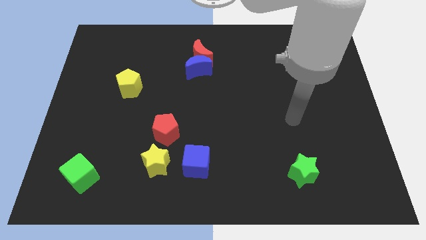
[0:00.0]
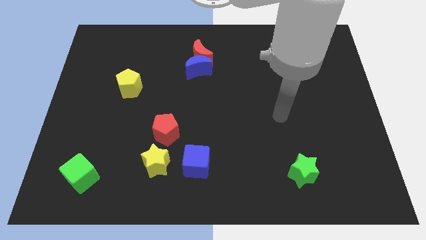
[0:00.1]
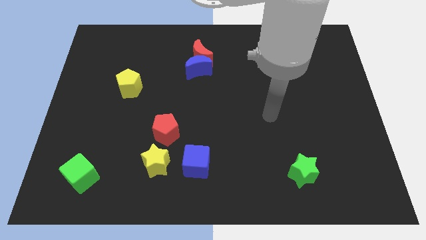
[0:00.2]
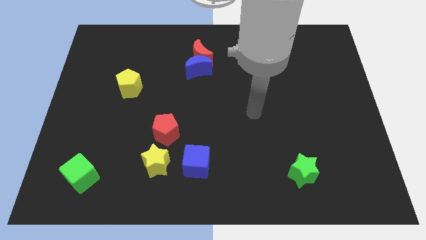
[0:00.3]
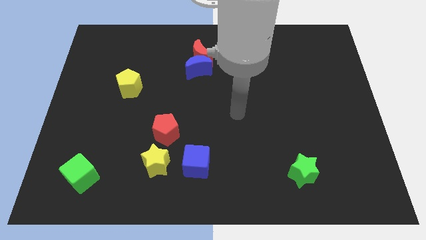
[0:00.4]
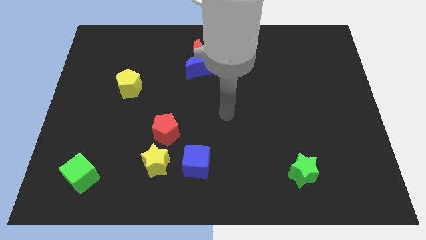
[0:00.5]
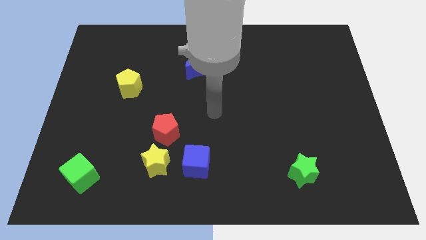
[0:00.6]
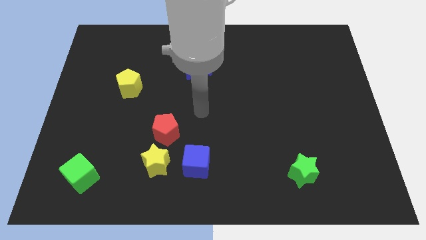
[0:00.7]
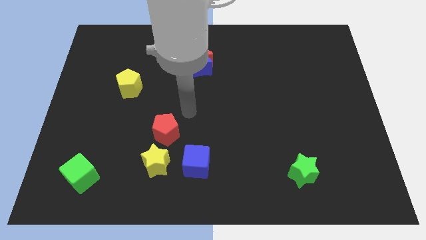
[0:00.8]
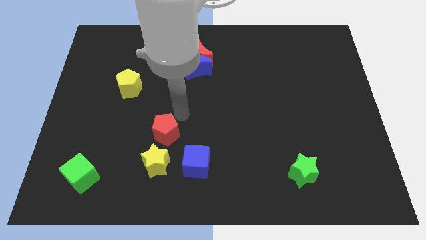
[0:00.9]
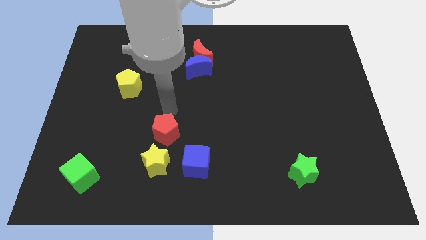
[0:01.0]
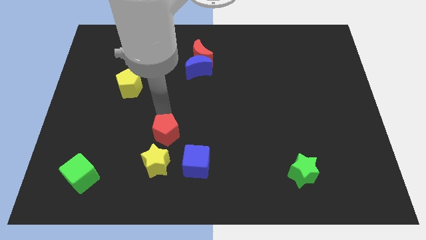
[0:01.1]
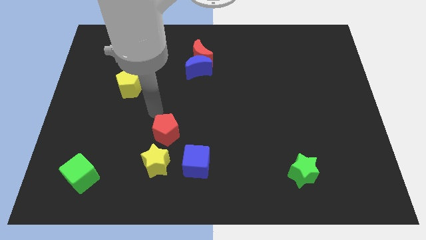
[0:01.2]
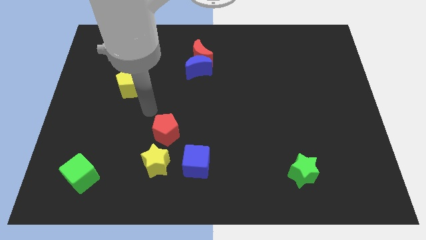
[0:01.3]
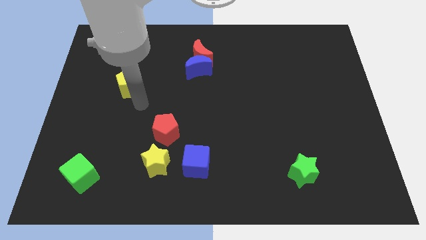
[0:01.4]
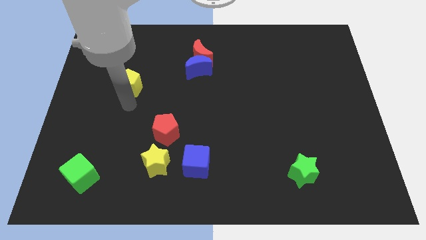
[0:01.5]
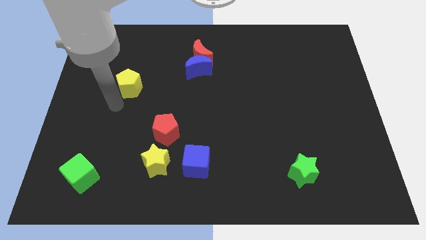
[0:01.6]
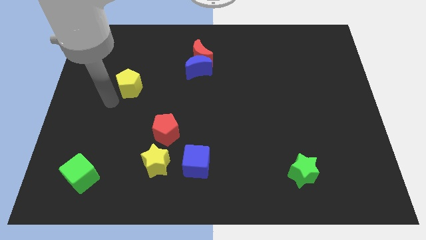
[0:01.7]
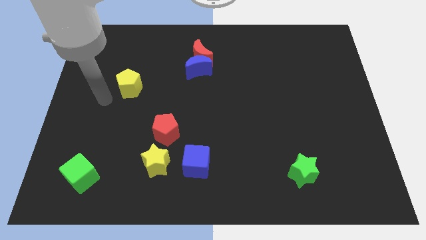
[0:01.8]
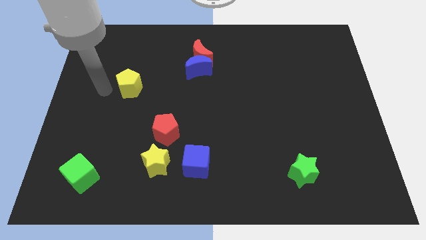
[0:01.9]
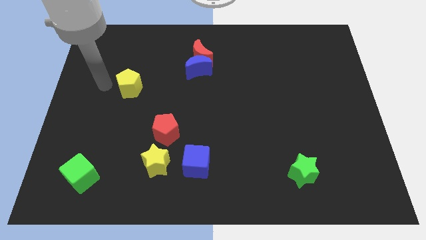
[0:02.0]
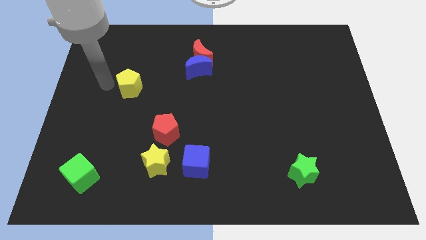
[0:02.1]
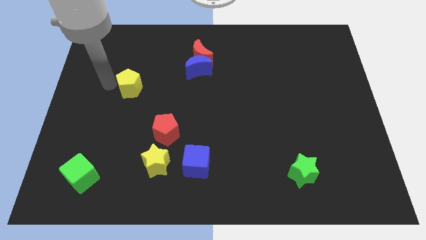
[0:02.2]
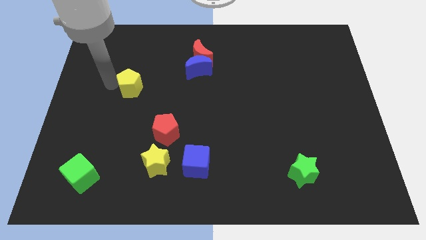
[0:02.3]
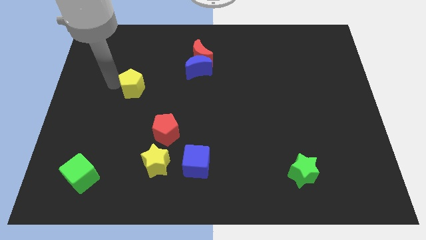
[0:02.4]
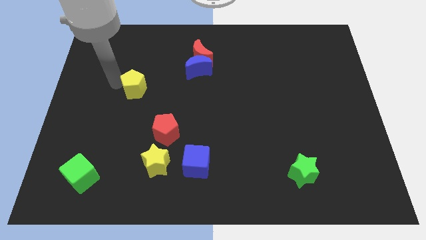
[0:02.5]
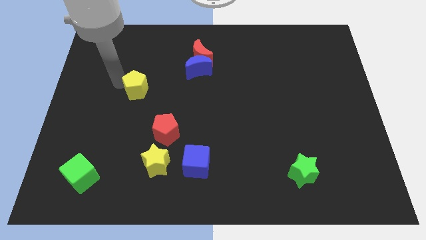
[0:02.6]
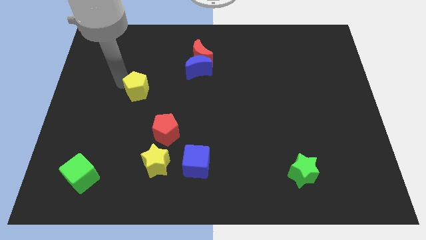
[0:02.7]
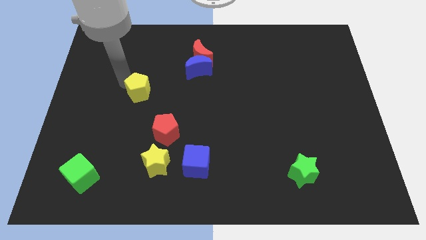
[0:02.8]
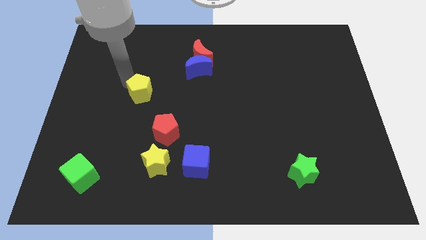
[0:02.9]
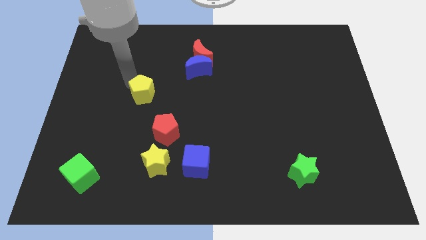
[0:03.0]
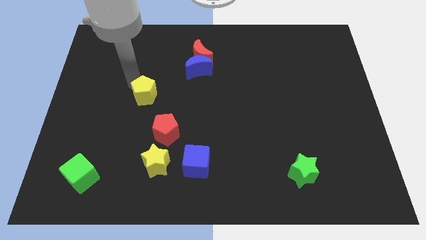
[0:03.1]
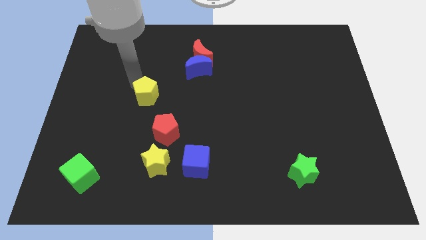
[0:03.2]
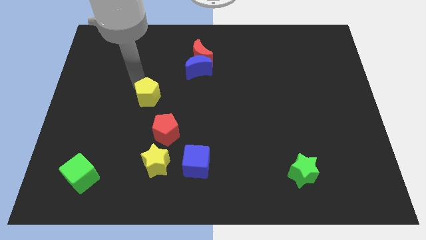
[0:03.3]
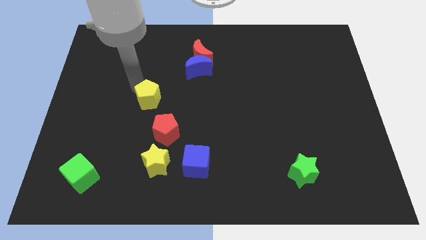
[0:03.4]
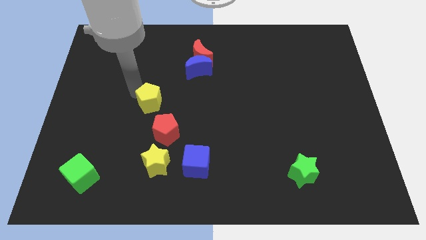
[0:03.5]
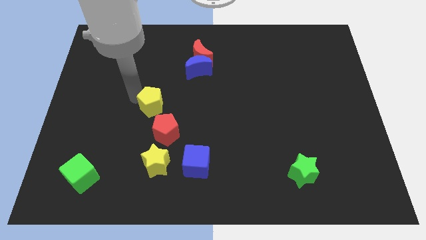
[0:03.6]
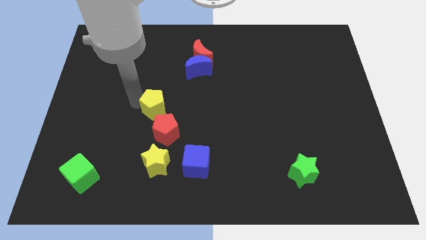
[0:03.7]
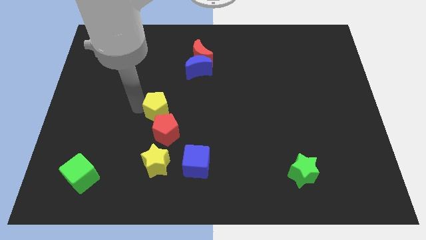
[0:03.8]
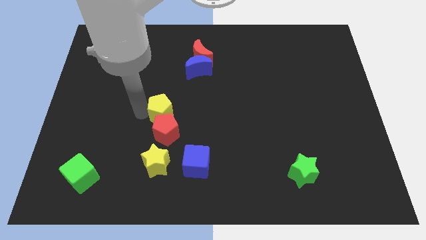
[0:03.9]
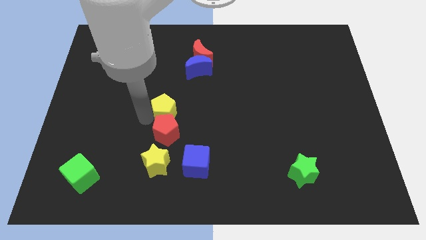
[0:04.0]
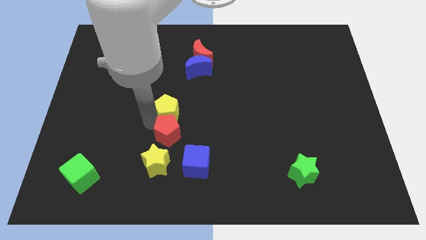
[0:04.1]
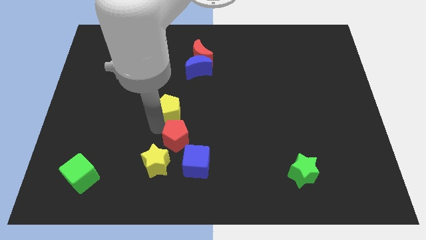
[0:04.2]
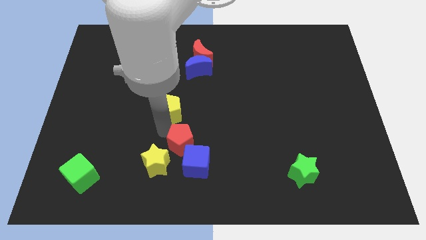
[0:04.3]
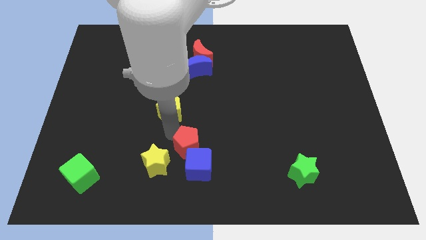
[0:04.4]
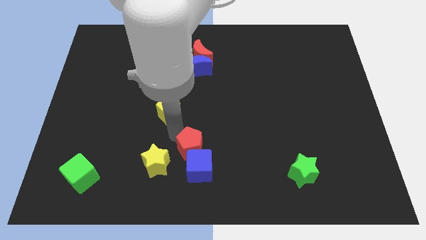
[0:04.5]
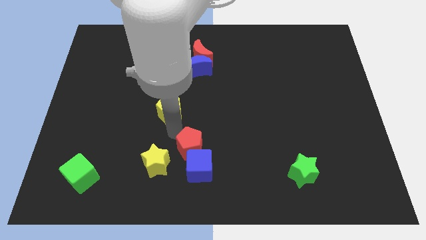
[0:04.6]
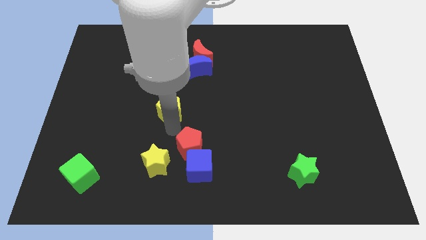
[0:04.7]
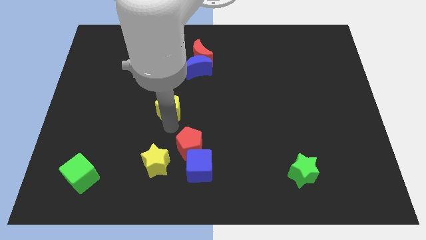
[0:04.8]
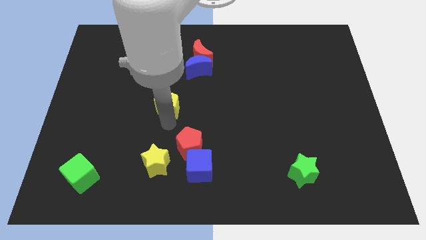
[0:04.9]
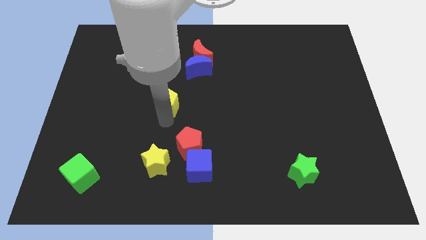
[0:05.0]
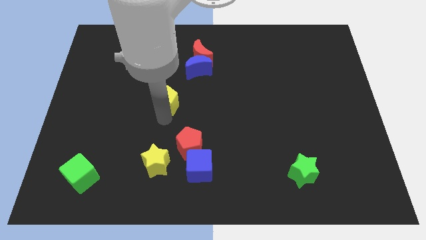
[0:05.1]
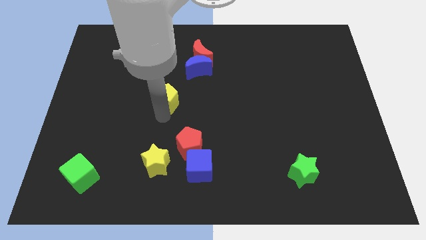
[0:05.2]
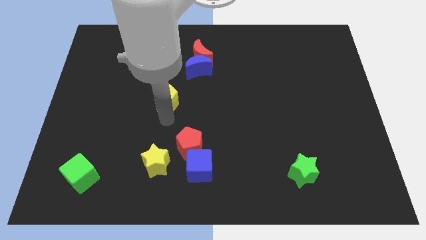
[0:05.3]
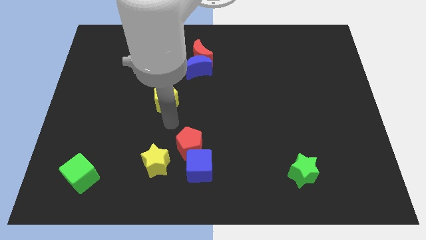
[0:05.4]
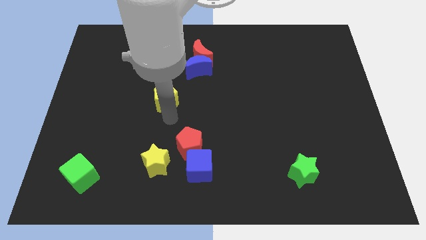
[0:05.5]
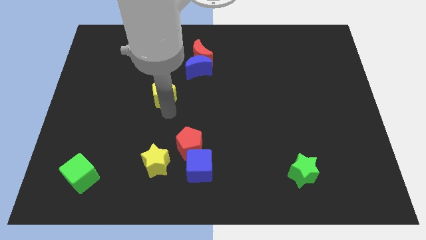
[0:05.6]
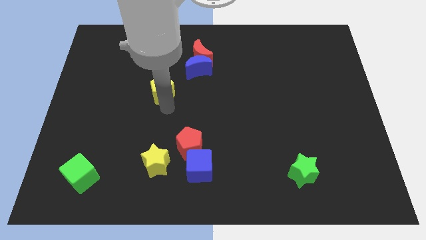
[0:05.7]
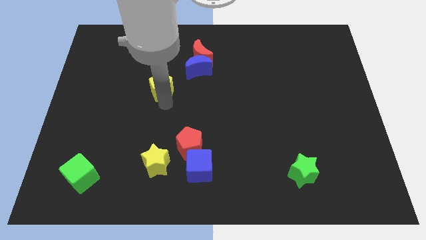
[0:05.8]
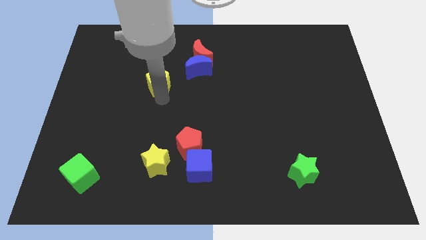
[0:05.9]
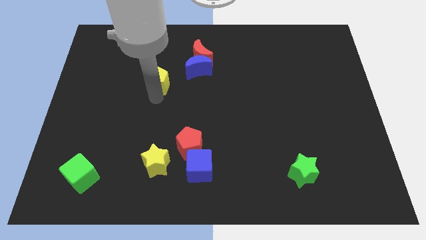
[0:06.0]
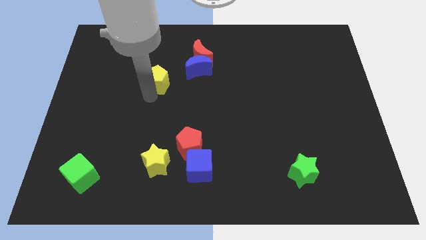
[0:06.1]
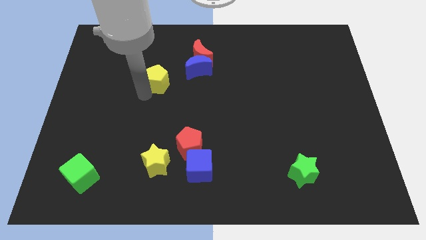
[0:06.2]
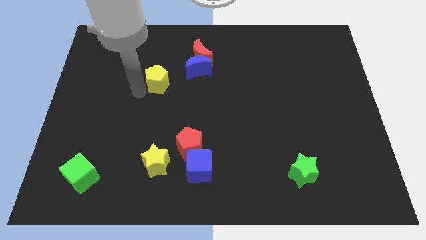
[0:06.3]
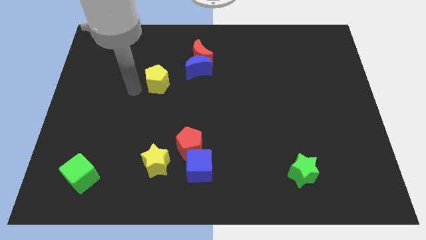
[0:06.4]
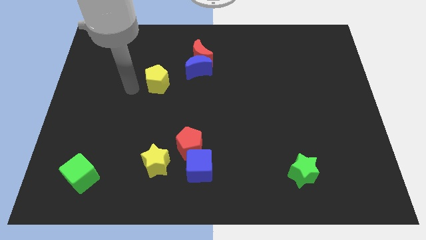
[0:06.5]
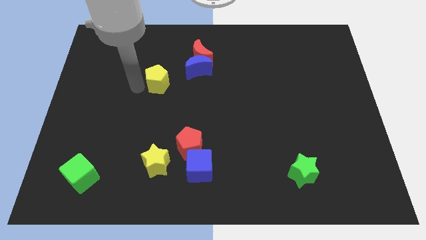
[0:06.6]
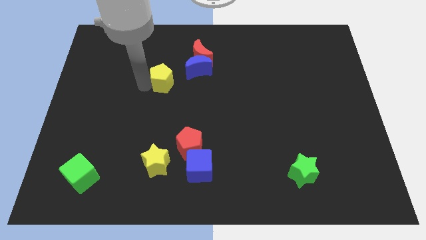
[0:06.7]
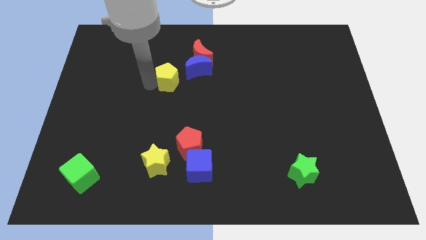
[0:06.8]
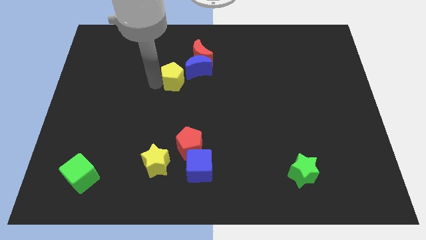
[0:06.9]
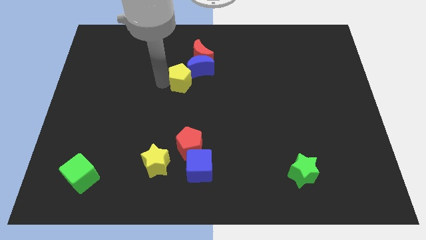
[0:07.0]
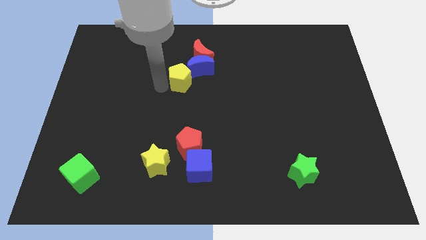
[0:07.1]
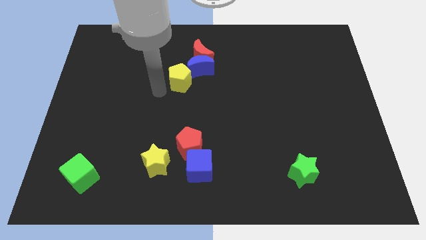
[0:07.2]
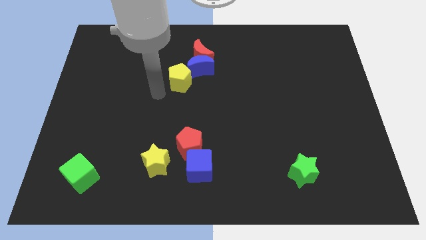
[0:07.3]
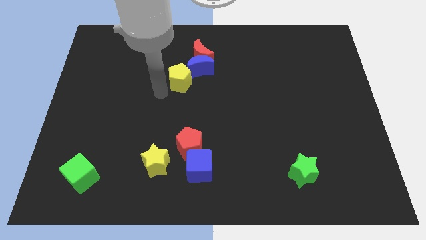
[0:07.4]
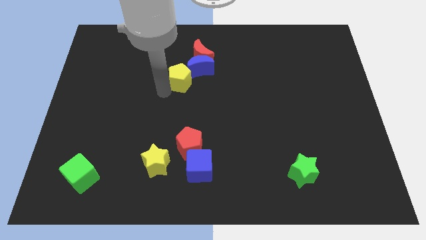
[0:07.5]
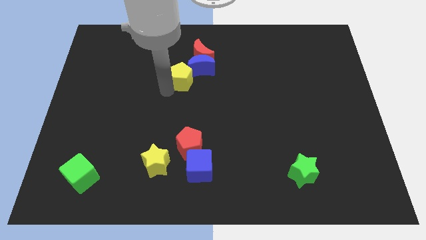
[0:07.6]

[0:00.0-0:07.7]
slide the yellow pentagon to the blue moon
